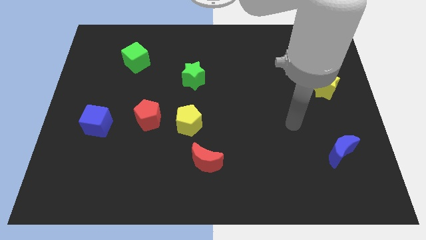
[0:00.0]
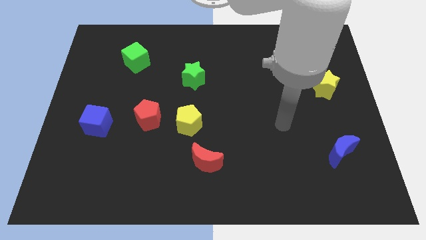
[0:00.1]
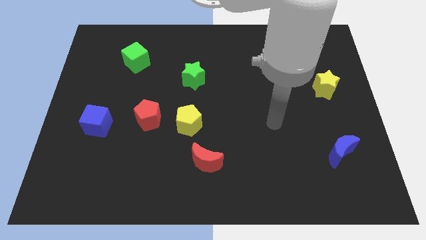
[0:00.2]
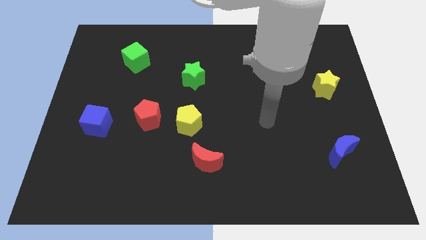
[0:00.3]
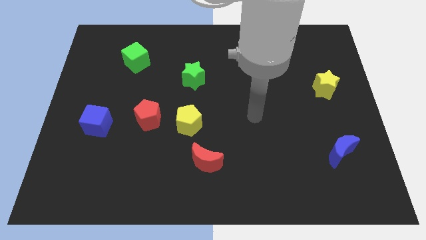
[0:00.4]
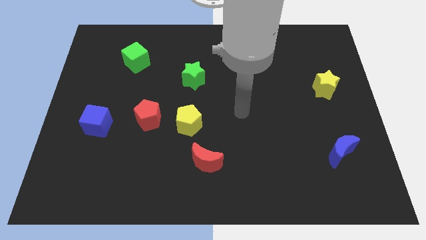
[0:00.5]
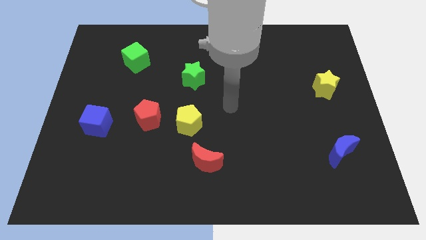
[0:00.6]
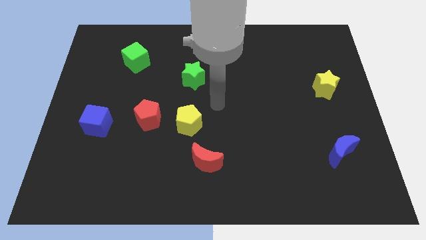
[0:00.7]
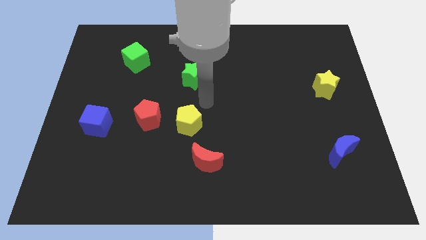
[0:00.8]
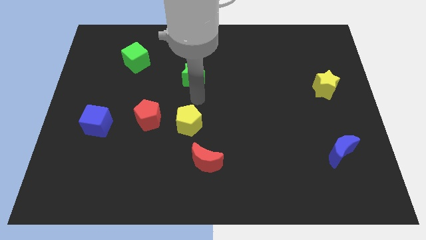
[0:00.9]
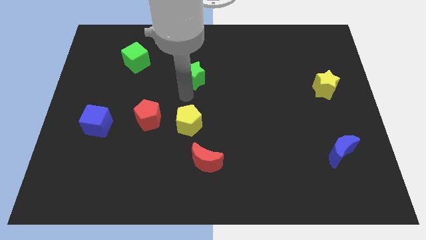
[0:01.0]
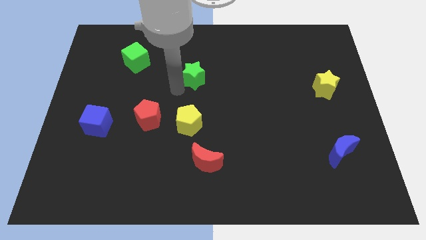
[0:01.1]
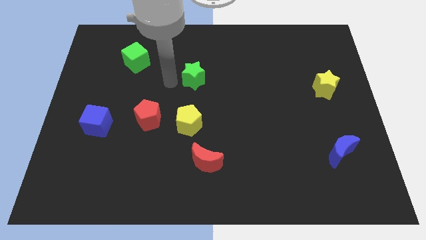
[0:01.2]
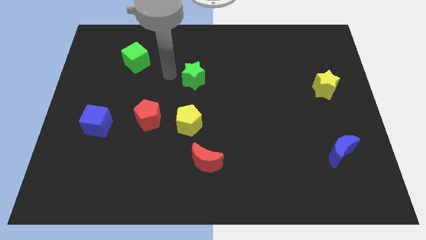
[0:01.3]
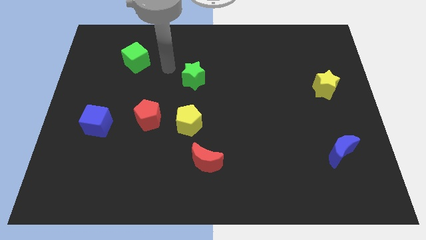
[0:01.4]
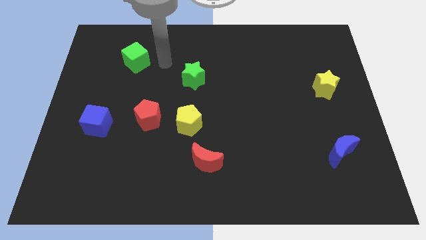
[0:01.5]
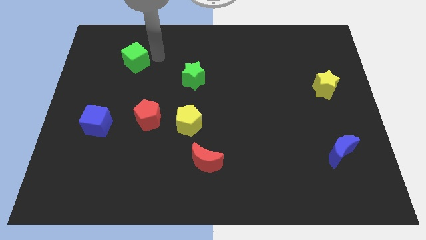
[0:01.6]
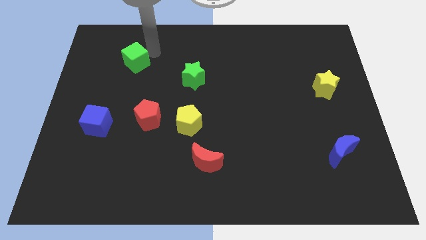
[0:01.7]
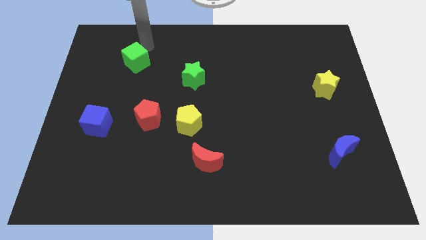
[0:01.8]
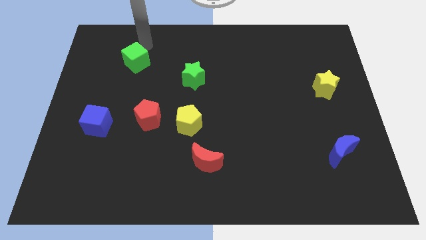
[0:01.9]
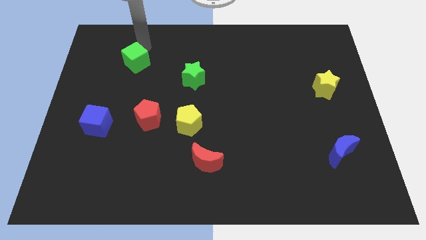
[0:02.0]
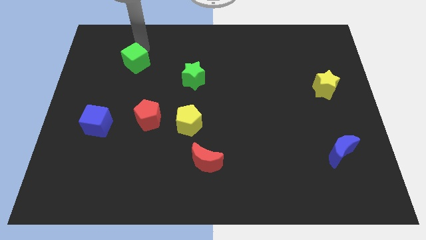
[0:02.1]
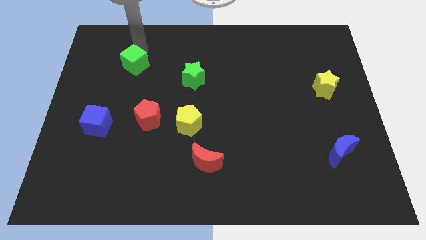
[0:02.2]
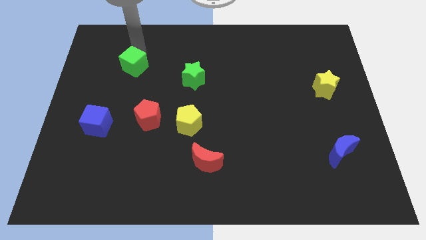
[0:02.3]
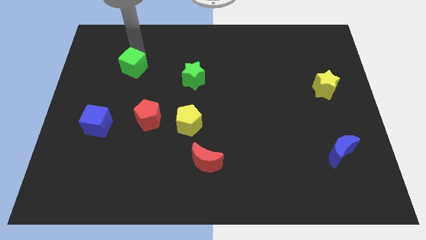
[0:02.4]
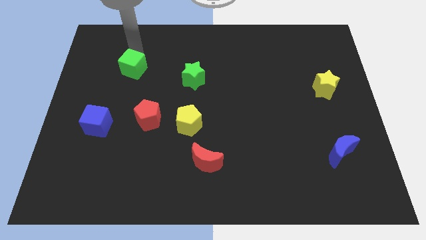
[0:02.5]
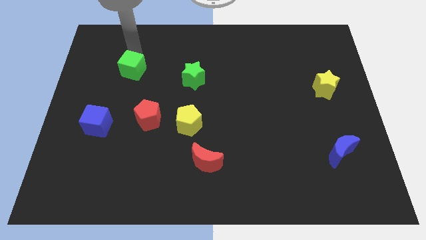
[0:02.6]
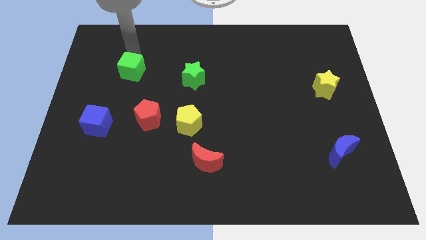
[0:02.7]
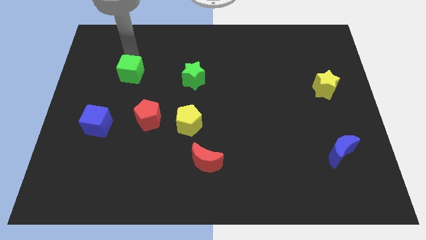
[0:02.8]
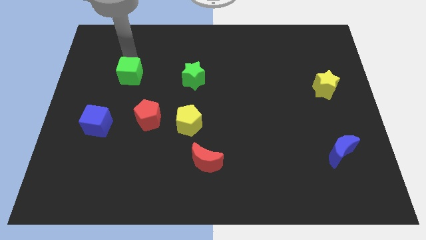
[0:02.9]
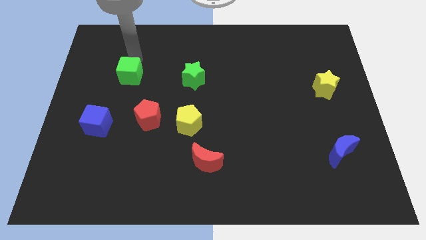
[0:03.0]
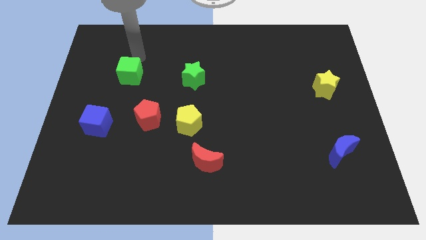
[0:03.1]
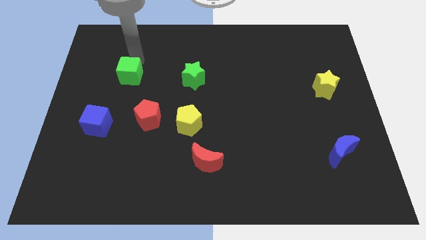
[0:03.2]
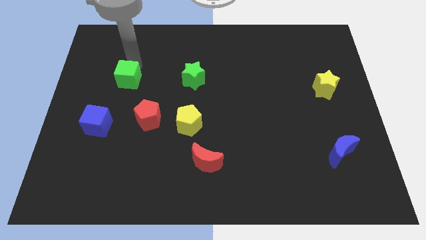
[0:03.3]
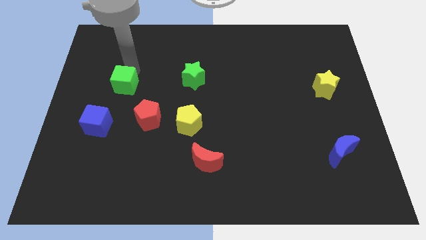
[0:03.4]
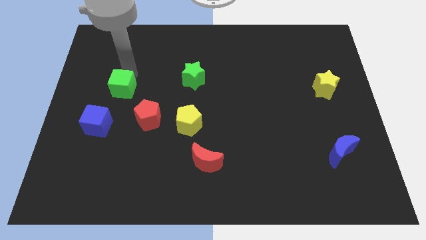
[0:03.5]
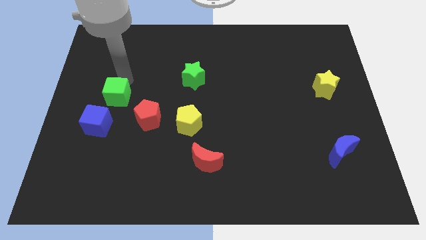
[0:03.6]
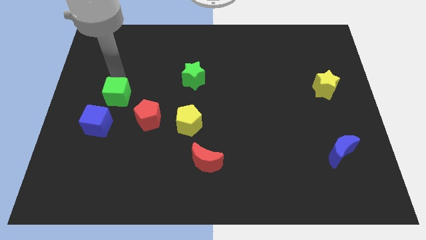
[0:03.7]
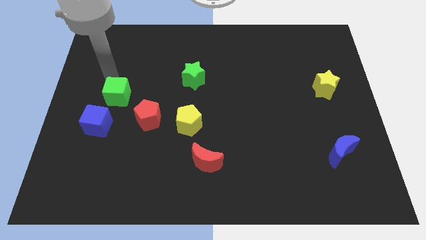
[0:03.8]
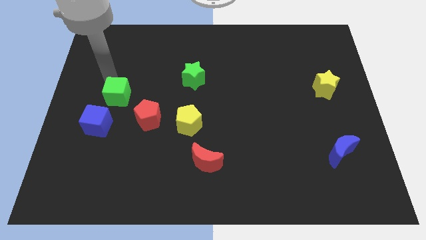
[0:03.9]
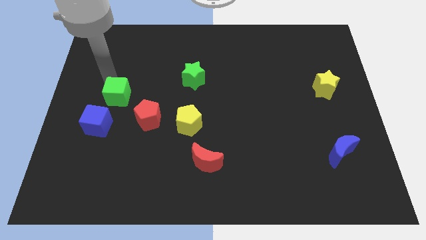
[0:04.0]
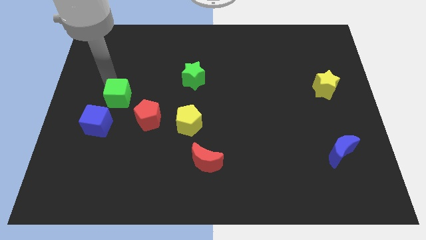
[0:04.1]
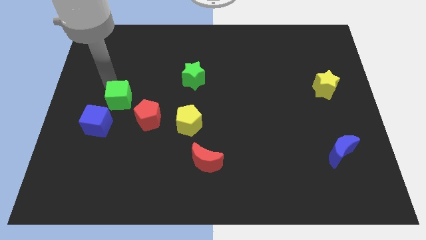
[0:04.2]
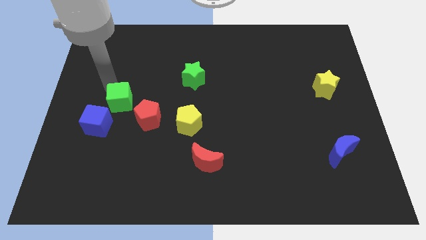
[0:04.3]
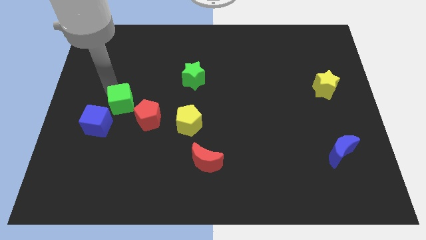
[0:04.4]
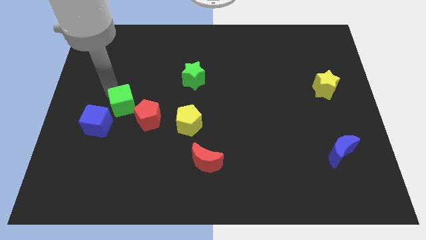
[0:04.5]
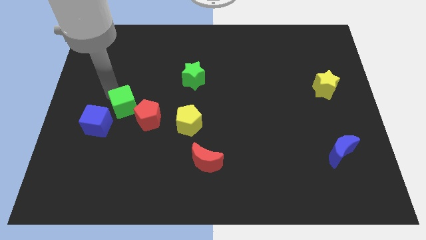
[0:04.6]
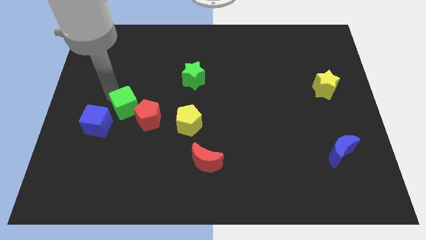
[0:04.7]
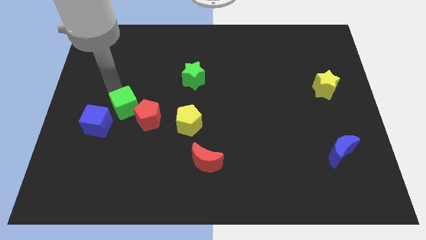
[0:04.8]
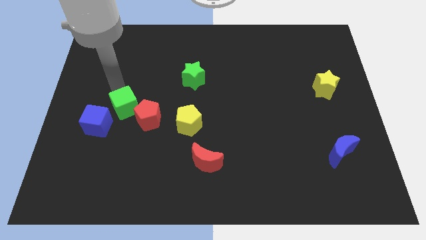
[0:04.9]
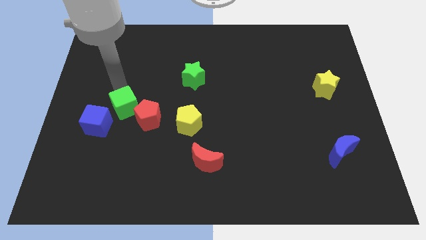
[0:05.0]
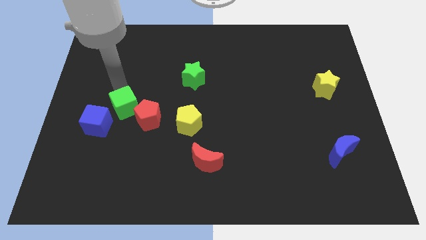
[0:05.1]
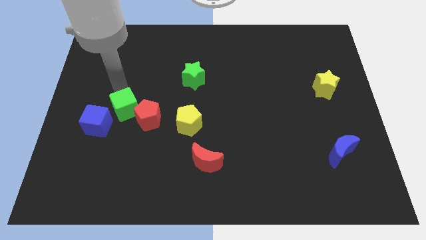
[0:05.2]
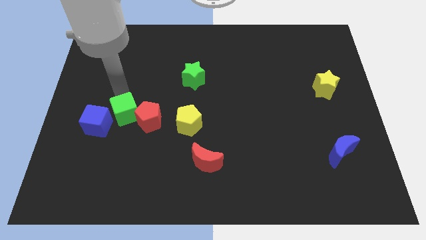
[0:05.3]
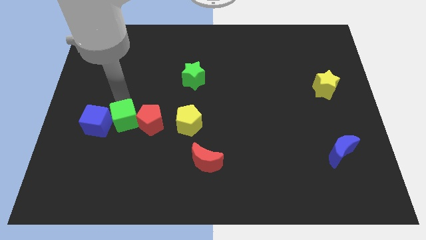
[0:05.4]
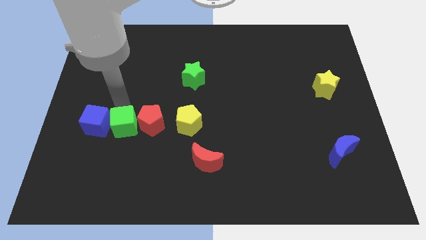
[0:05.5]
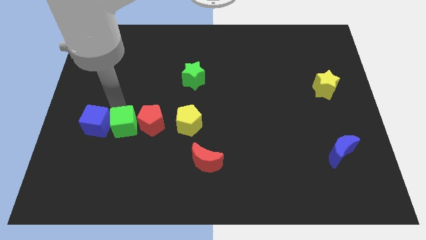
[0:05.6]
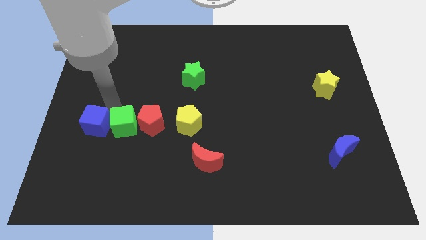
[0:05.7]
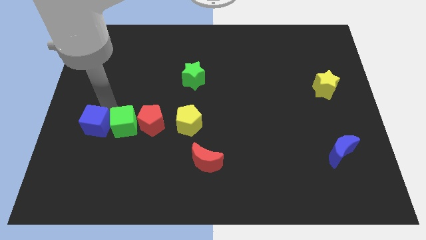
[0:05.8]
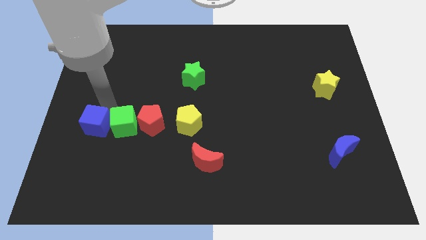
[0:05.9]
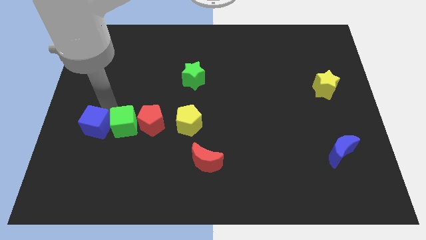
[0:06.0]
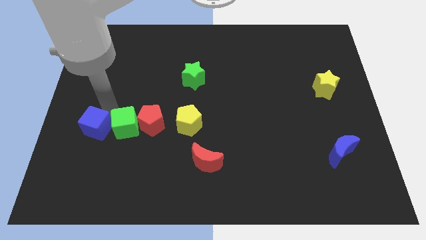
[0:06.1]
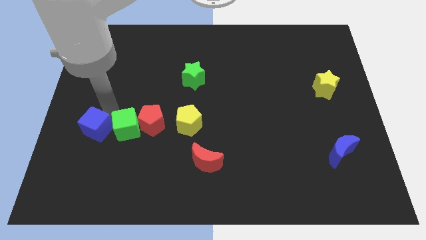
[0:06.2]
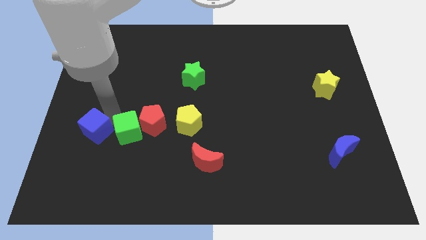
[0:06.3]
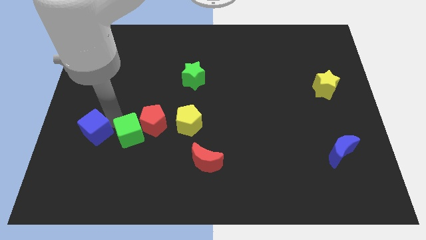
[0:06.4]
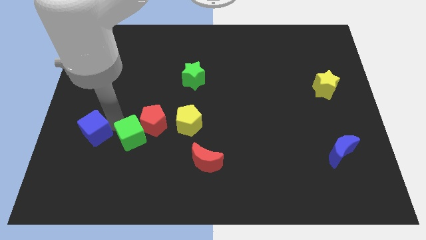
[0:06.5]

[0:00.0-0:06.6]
push the green cube below the red pentagon

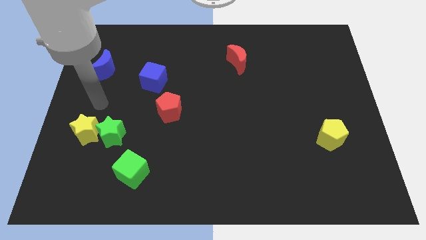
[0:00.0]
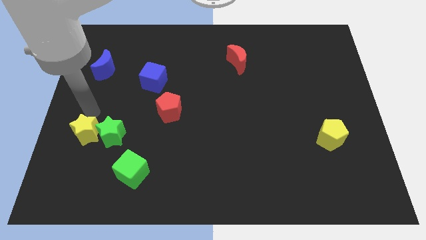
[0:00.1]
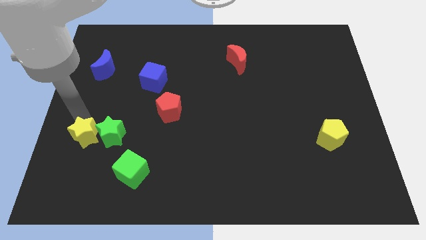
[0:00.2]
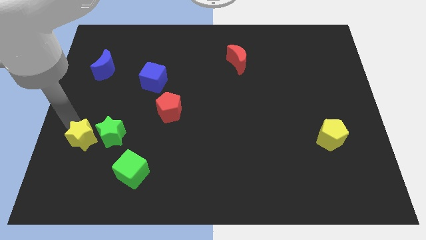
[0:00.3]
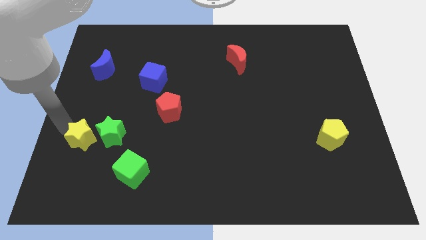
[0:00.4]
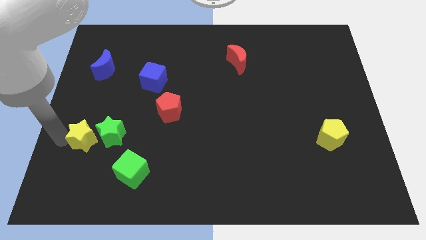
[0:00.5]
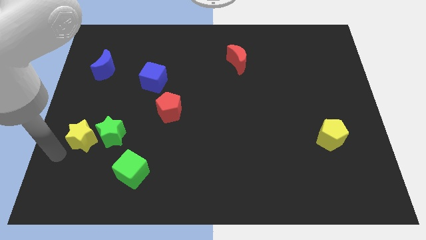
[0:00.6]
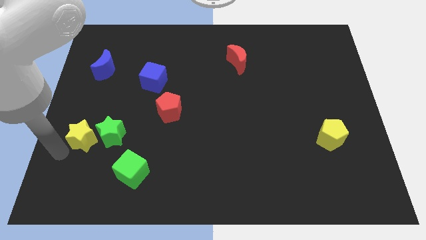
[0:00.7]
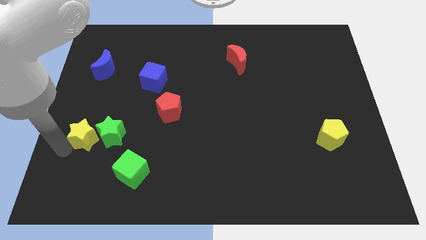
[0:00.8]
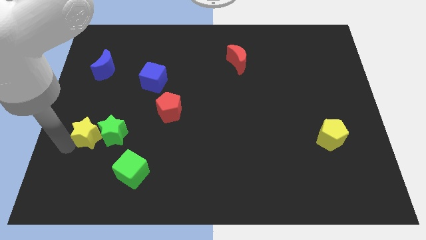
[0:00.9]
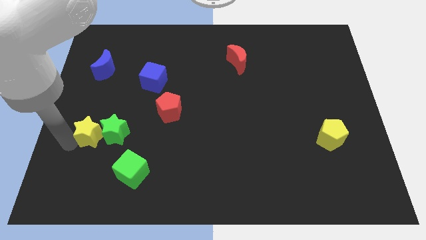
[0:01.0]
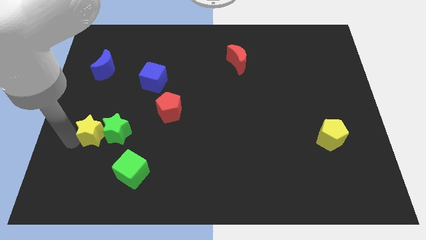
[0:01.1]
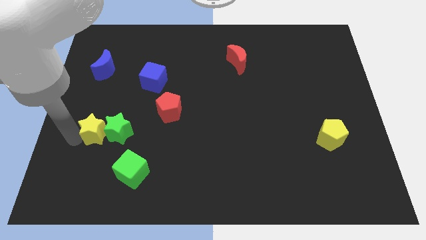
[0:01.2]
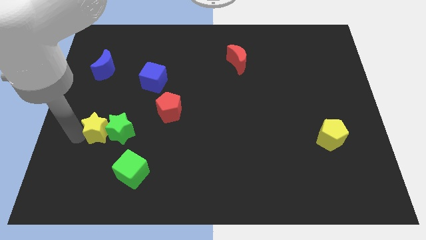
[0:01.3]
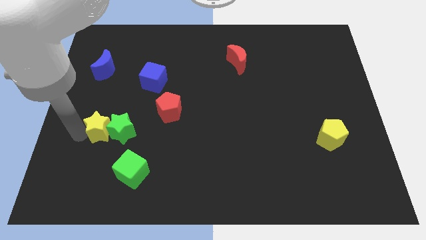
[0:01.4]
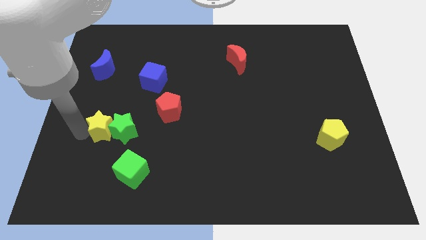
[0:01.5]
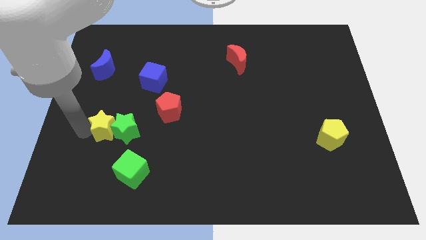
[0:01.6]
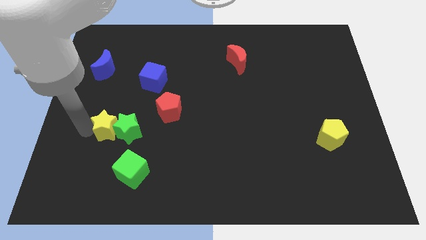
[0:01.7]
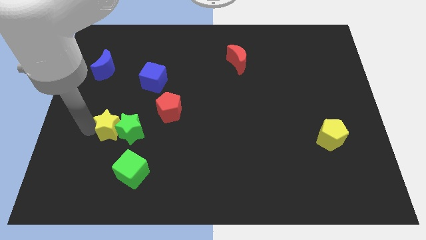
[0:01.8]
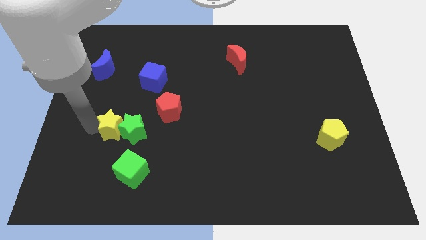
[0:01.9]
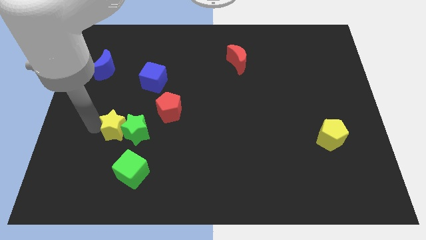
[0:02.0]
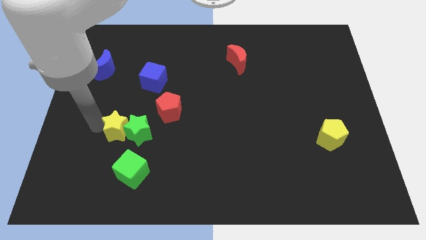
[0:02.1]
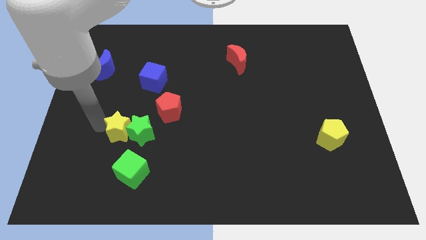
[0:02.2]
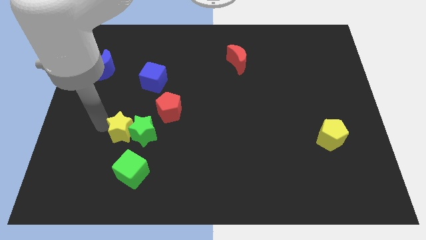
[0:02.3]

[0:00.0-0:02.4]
put the yellow star to the bottom left of the red pentagon
